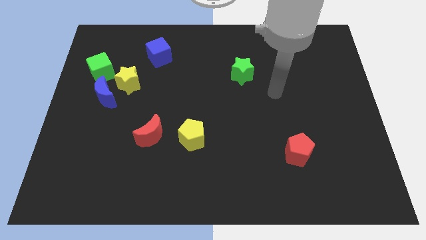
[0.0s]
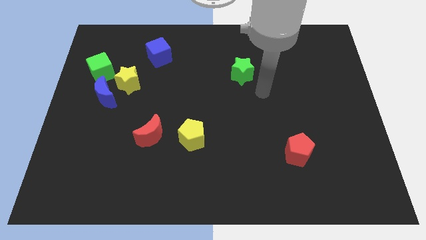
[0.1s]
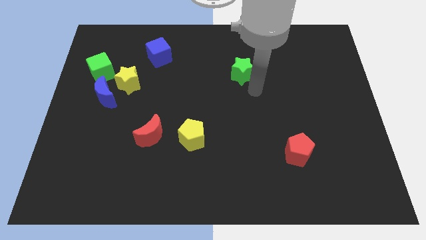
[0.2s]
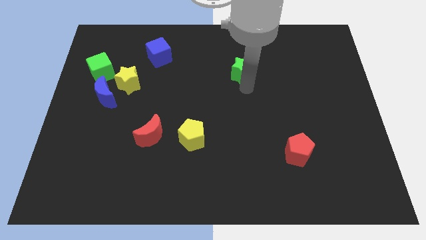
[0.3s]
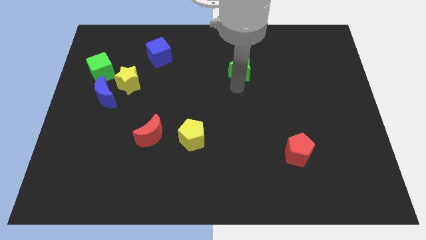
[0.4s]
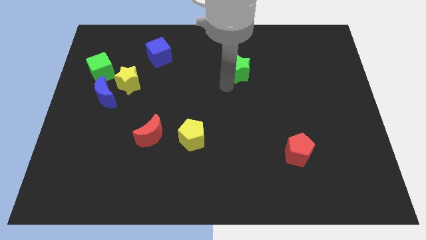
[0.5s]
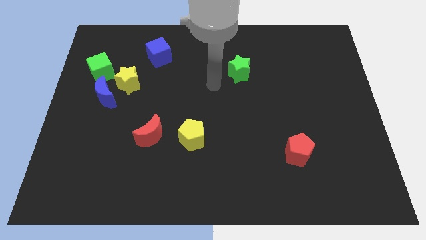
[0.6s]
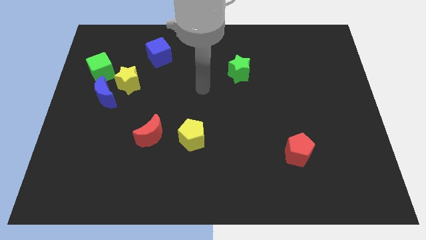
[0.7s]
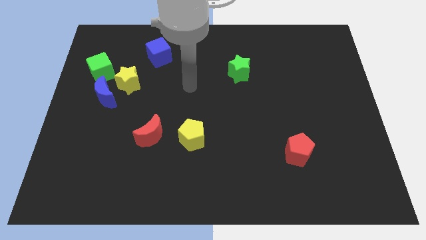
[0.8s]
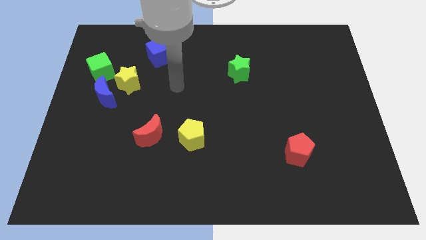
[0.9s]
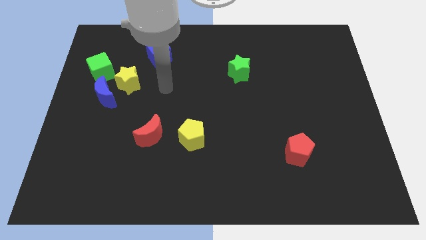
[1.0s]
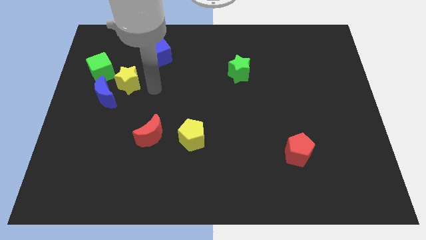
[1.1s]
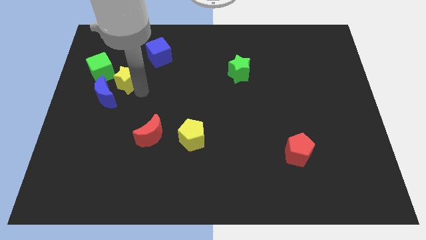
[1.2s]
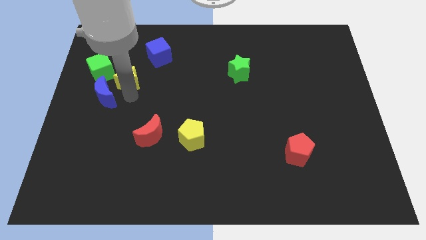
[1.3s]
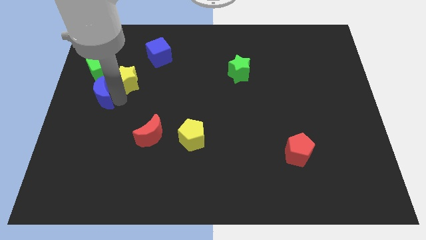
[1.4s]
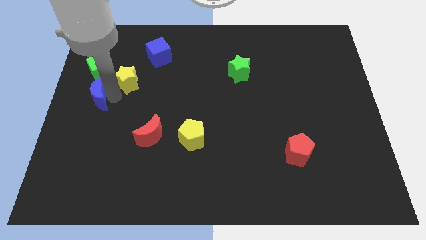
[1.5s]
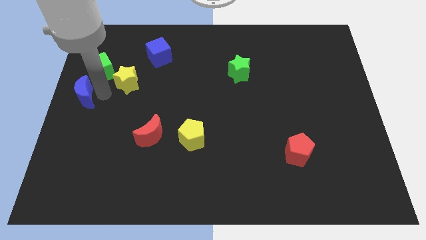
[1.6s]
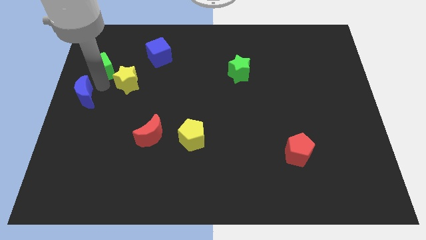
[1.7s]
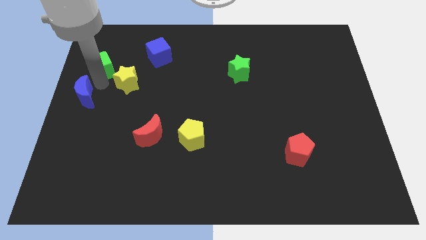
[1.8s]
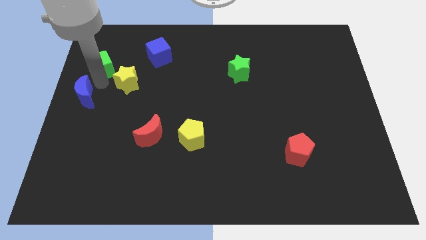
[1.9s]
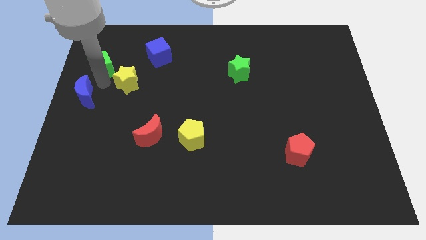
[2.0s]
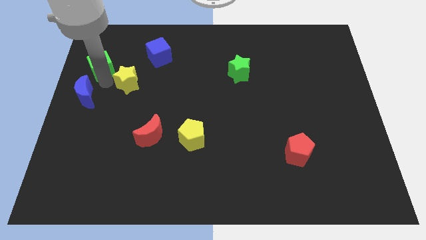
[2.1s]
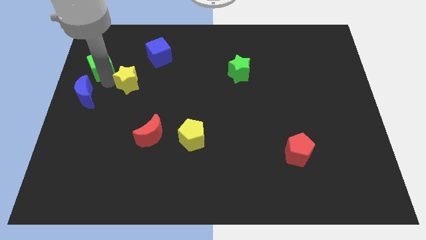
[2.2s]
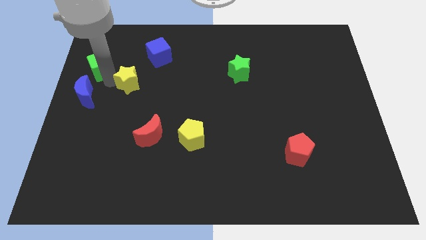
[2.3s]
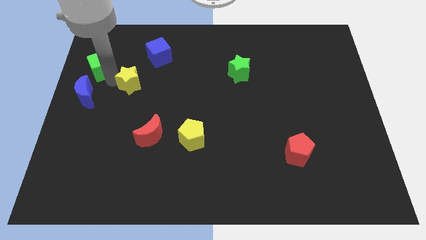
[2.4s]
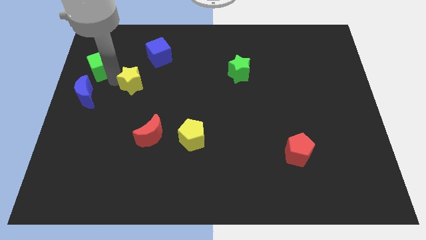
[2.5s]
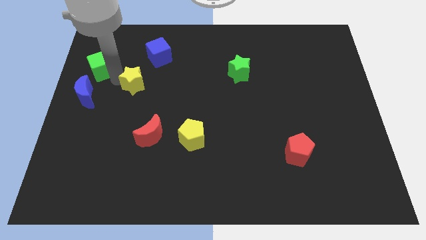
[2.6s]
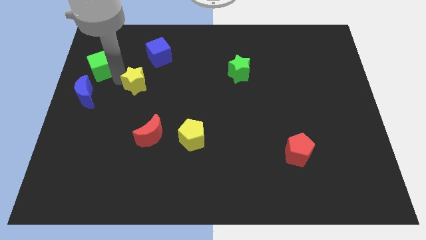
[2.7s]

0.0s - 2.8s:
separate the yellow star from the blue moon and green cube

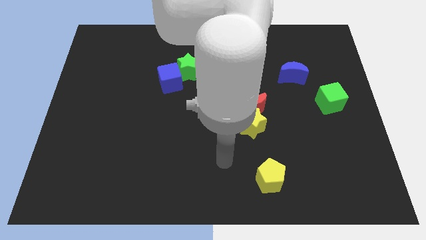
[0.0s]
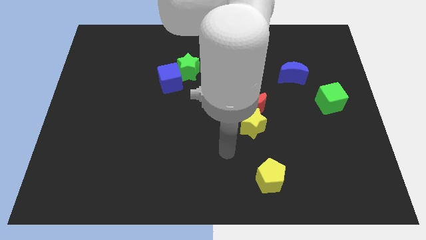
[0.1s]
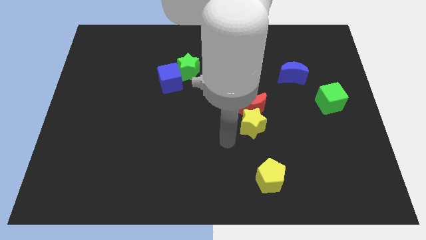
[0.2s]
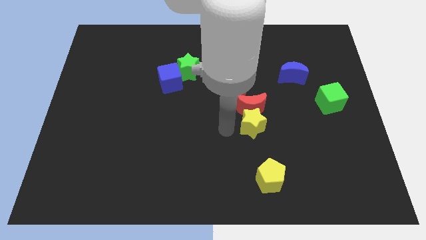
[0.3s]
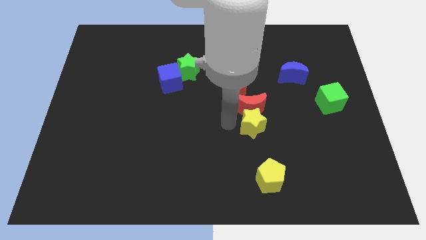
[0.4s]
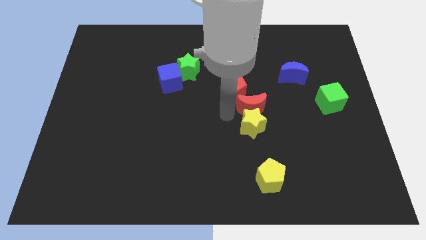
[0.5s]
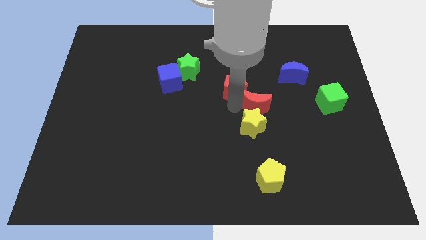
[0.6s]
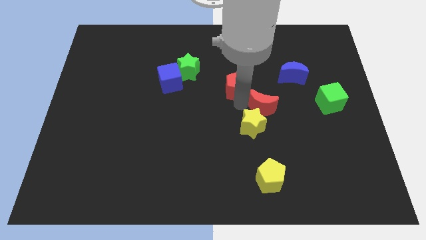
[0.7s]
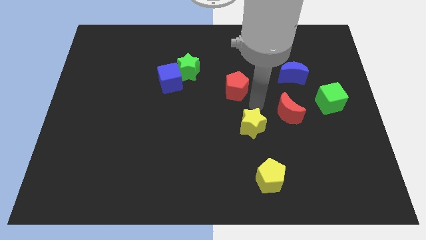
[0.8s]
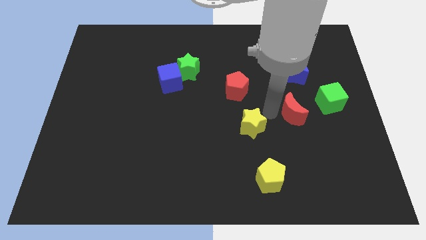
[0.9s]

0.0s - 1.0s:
separate the yellow star from the red moon

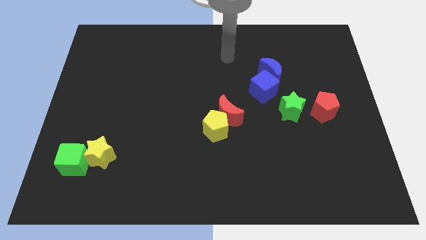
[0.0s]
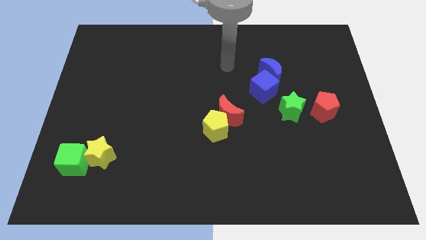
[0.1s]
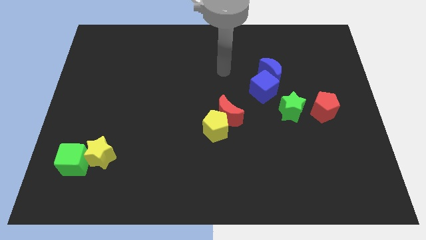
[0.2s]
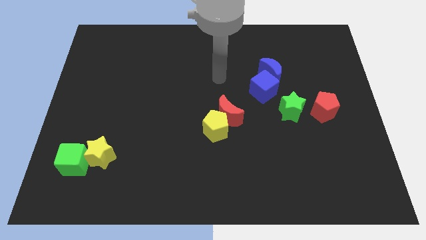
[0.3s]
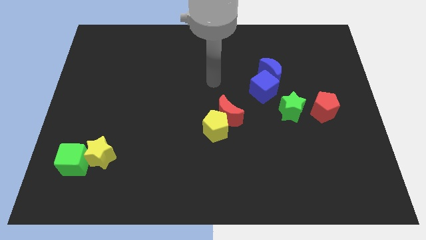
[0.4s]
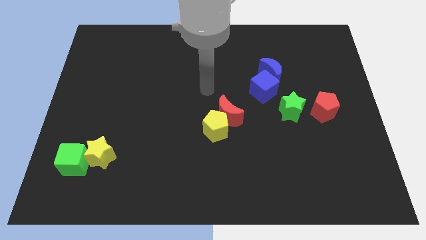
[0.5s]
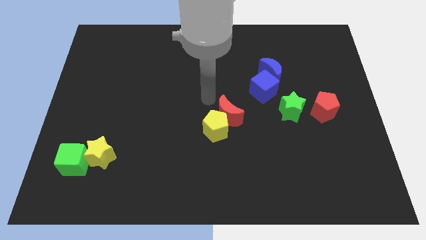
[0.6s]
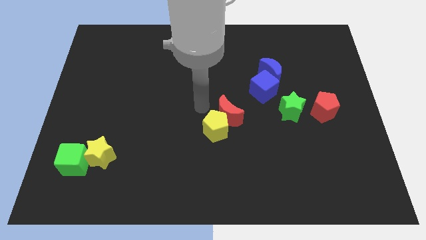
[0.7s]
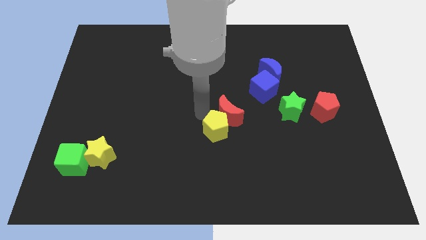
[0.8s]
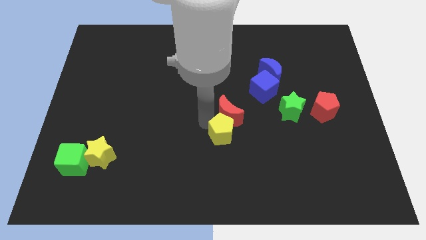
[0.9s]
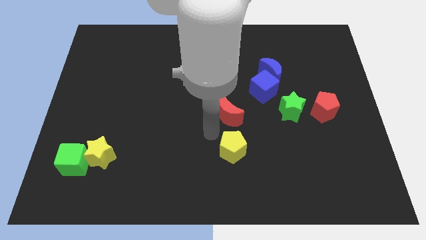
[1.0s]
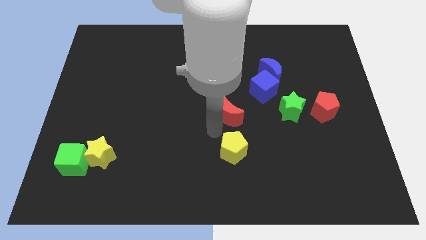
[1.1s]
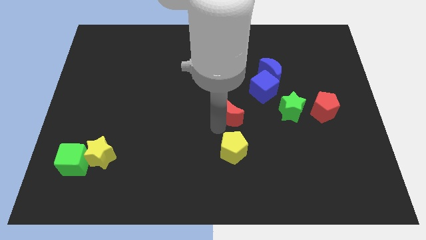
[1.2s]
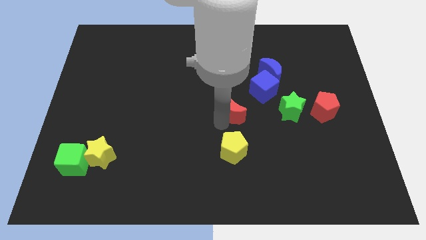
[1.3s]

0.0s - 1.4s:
pull the red moon apart from the yellow pentagon

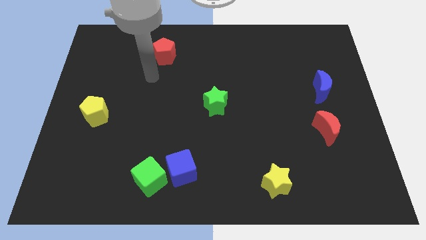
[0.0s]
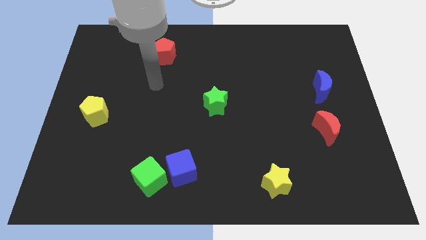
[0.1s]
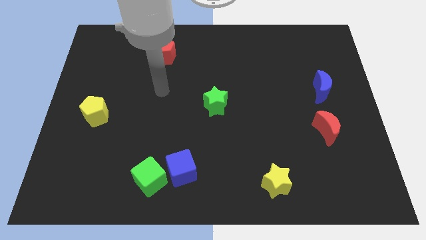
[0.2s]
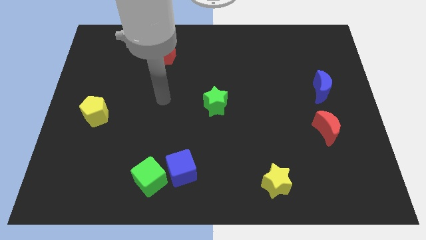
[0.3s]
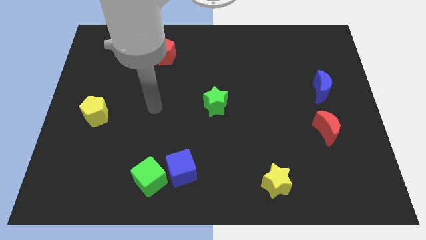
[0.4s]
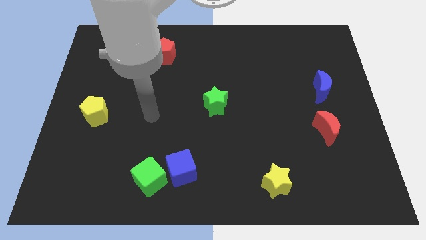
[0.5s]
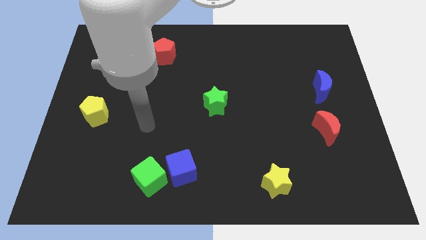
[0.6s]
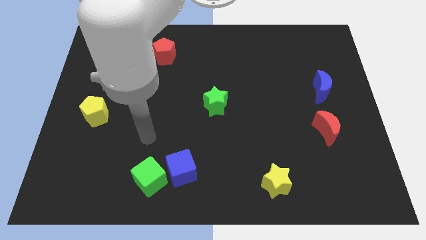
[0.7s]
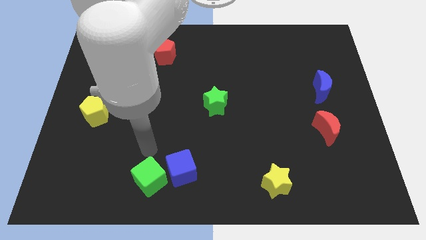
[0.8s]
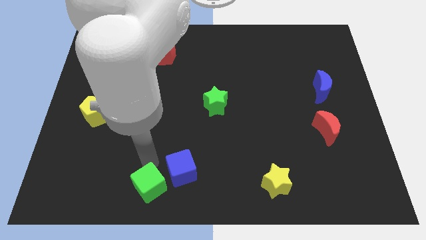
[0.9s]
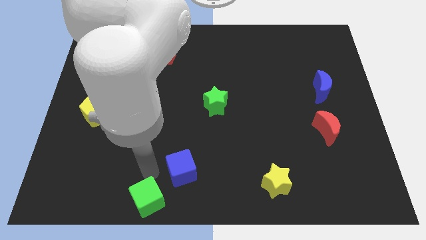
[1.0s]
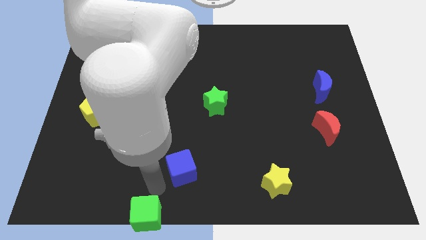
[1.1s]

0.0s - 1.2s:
separate the blue cube from the green cube

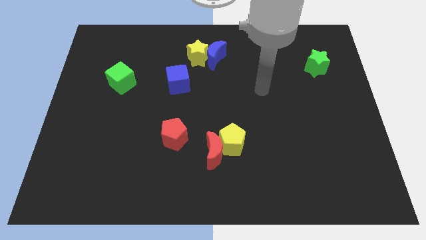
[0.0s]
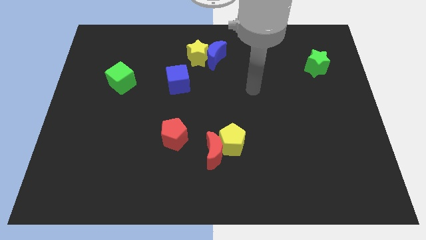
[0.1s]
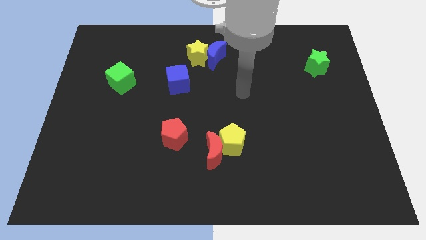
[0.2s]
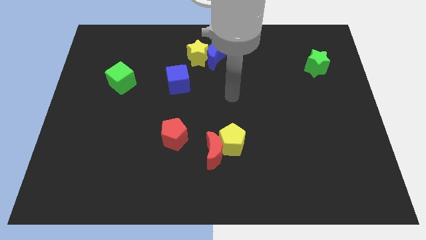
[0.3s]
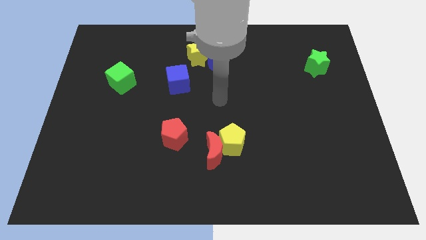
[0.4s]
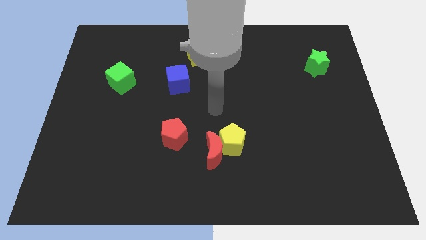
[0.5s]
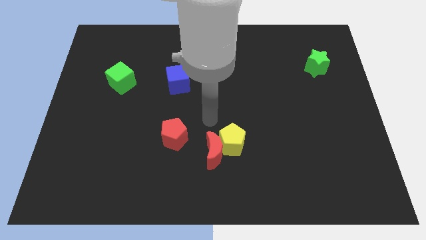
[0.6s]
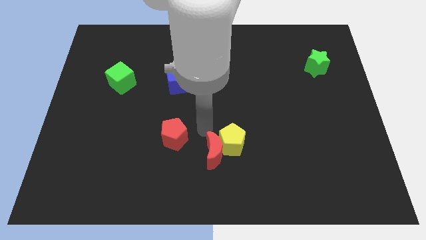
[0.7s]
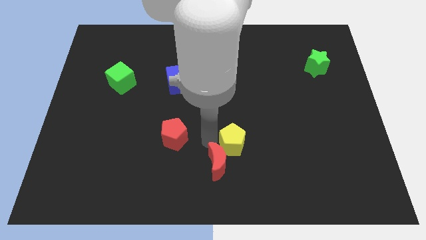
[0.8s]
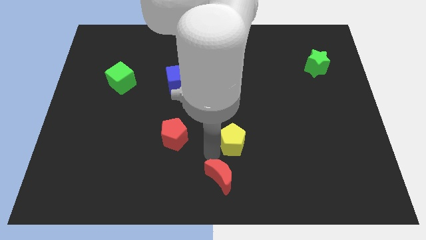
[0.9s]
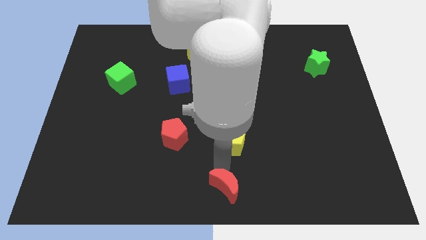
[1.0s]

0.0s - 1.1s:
pull the yellow pentagon apart from the red moon

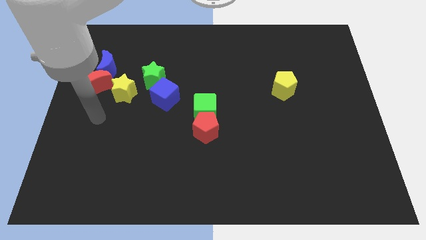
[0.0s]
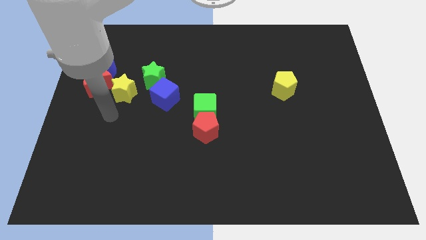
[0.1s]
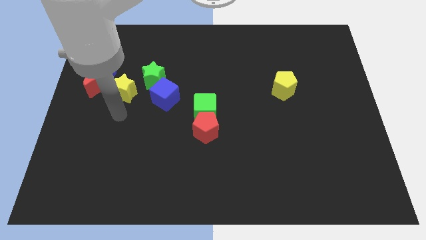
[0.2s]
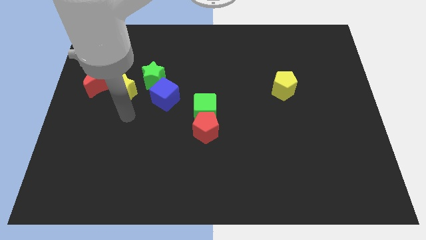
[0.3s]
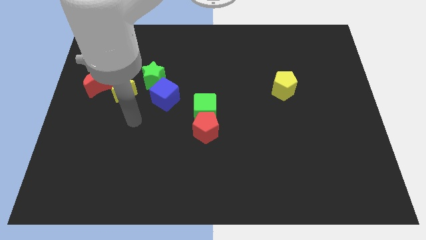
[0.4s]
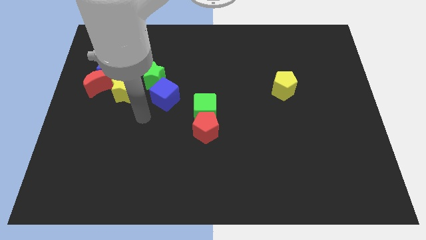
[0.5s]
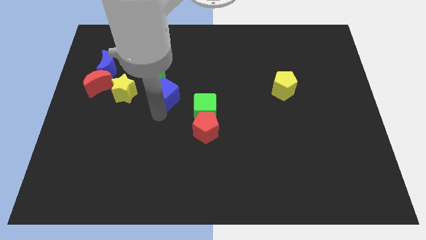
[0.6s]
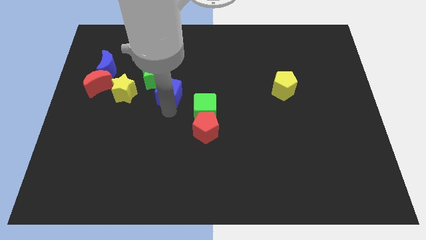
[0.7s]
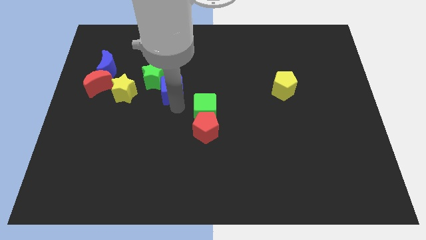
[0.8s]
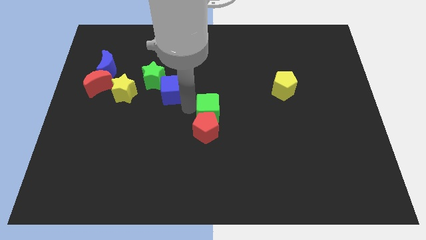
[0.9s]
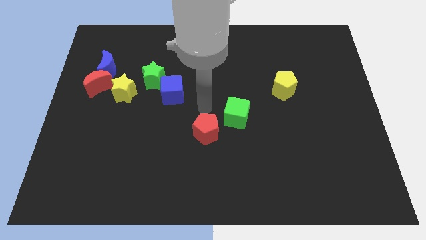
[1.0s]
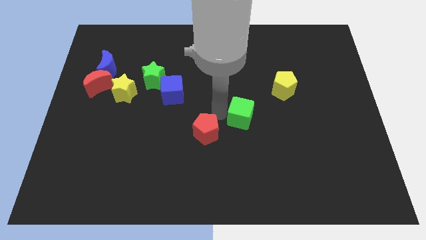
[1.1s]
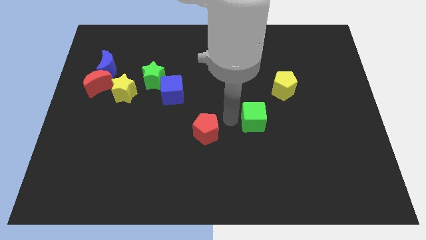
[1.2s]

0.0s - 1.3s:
separate the red pentagon from the green cube

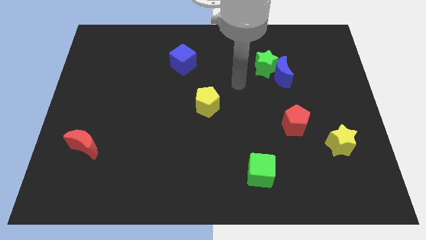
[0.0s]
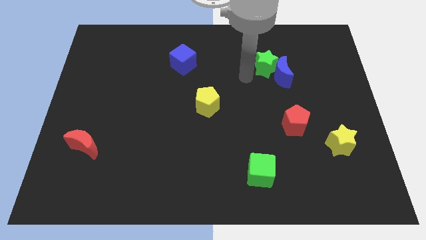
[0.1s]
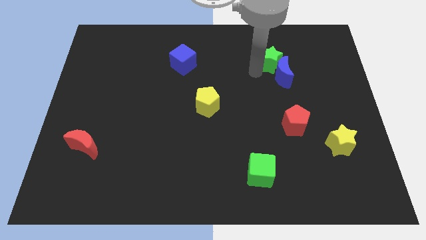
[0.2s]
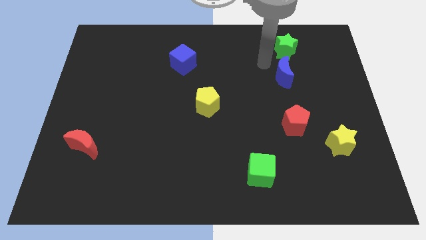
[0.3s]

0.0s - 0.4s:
separate the blue moon from the green star
